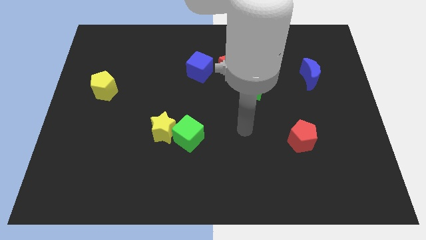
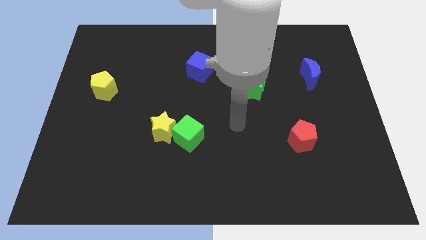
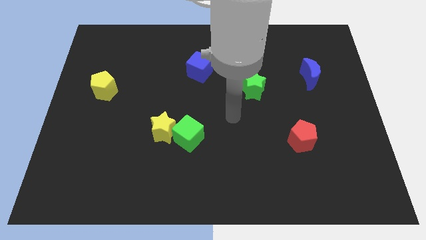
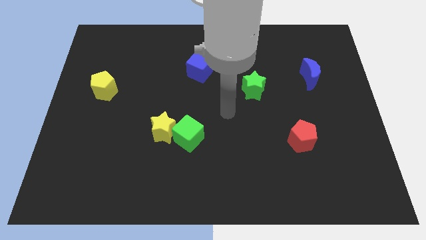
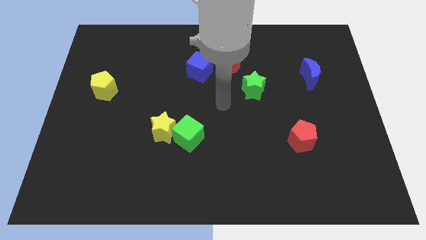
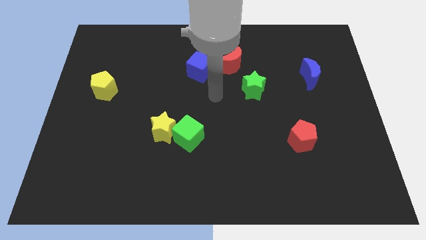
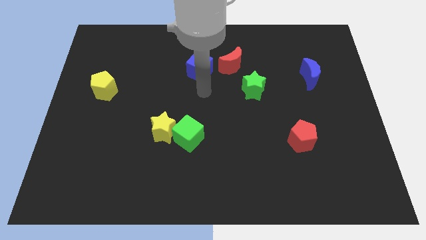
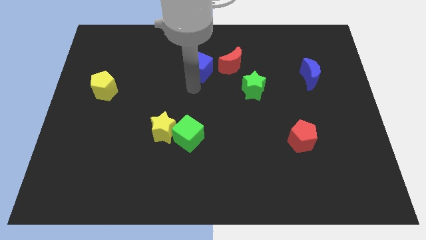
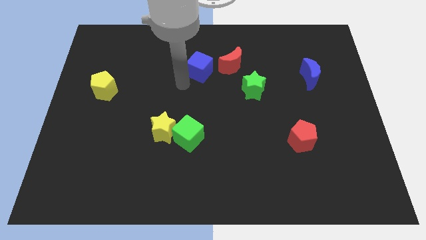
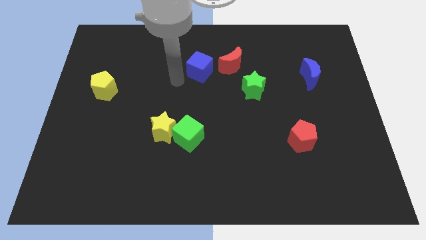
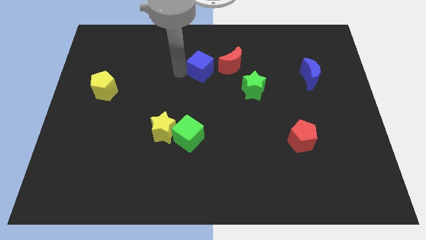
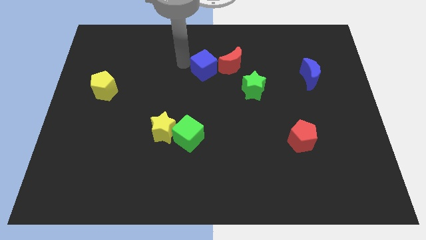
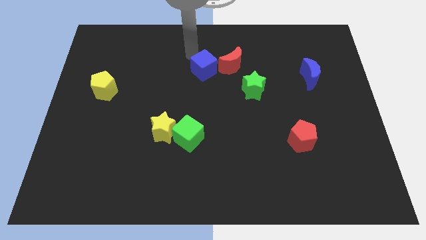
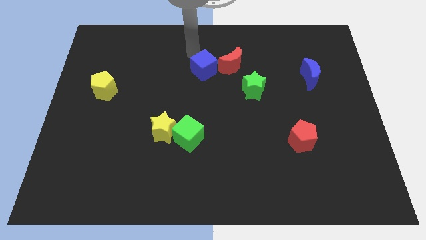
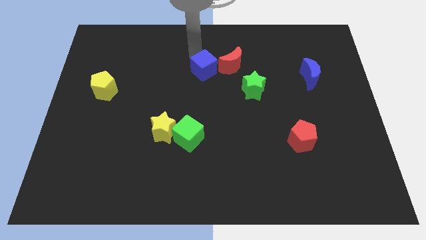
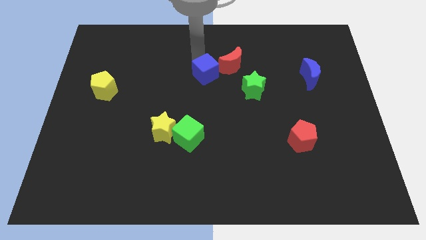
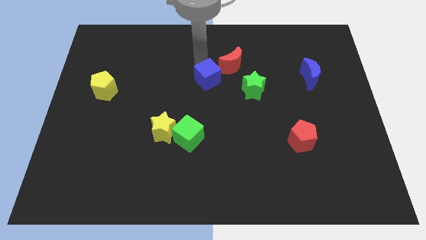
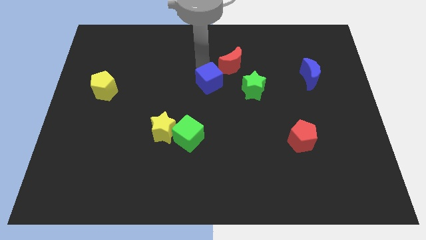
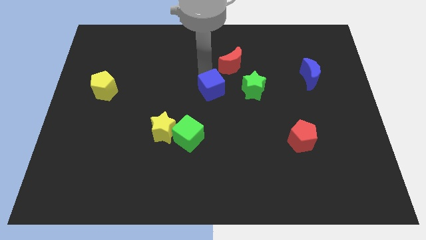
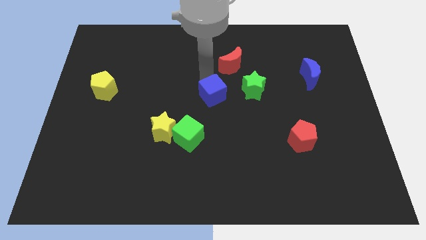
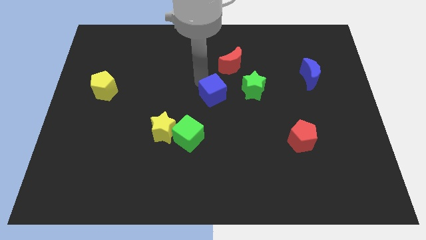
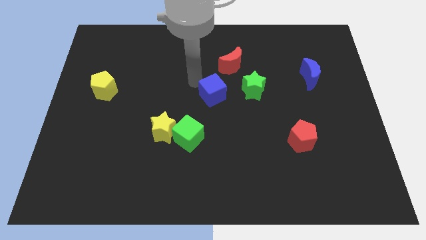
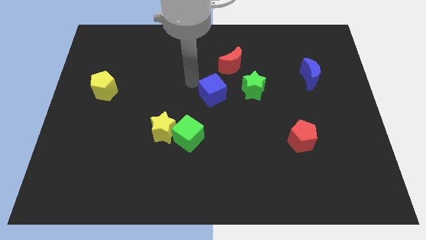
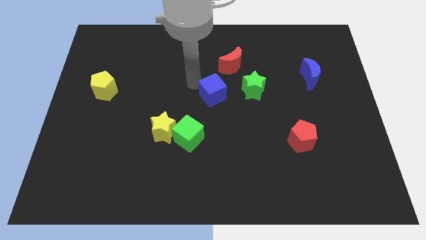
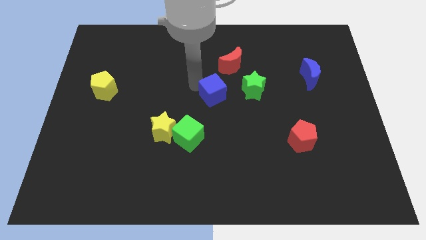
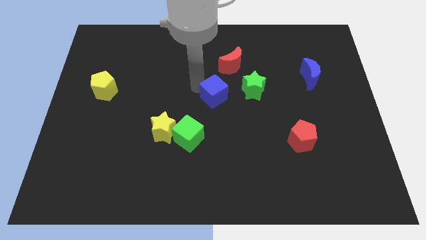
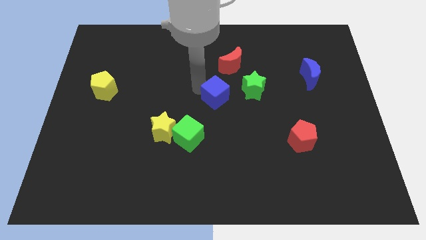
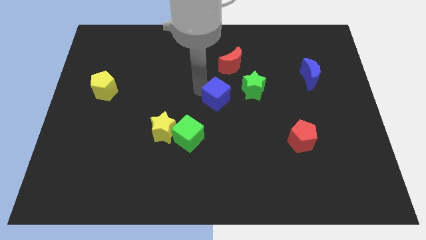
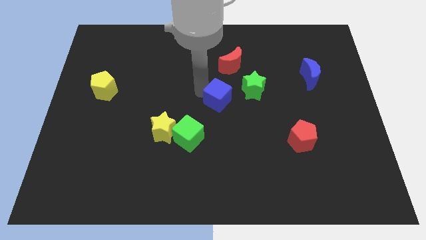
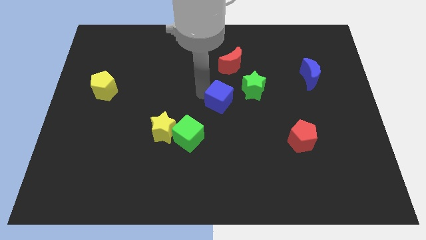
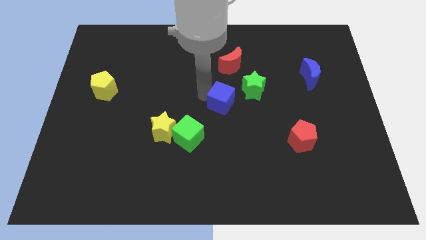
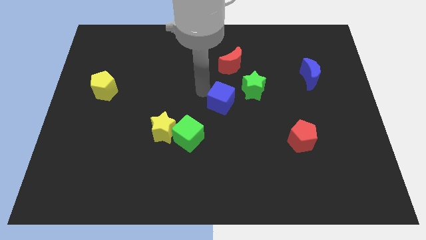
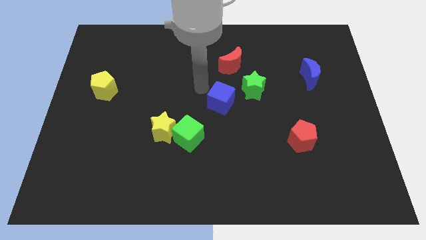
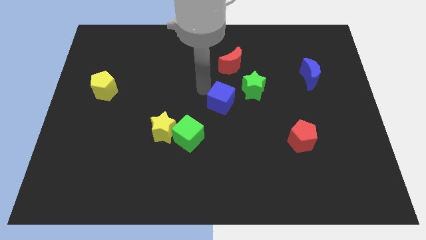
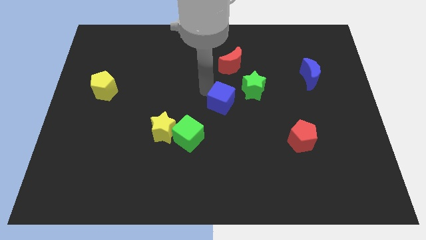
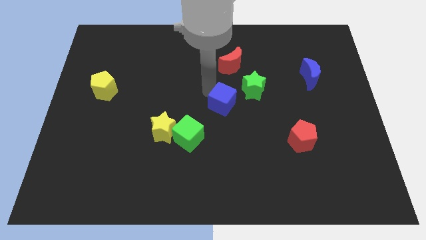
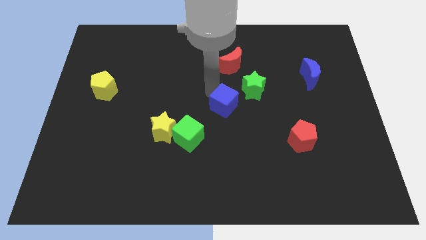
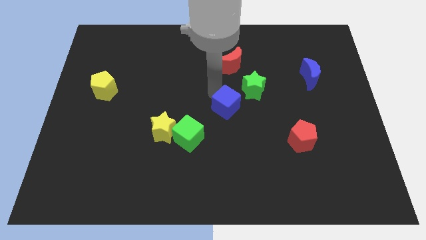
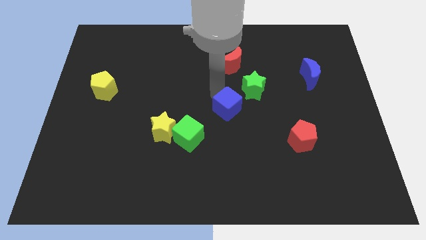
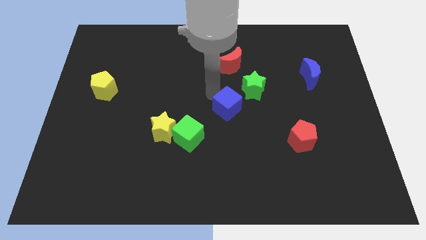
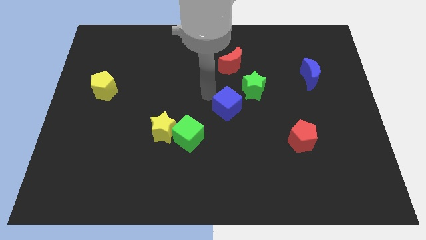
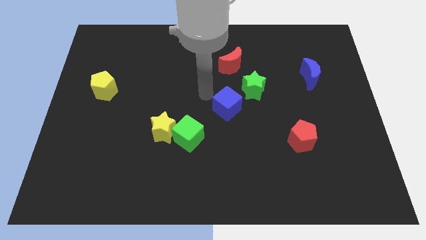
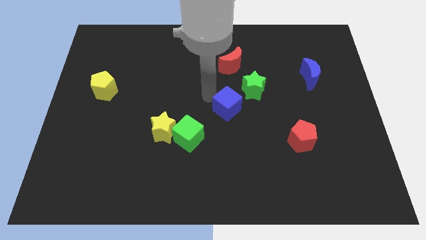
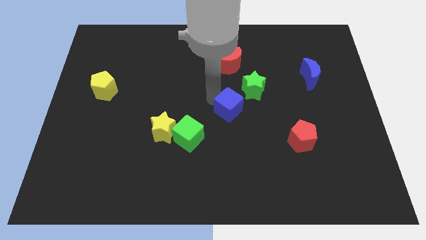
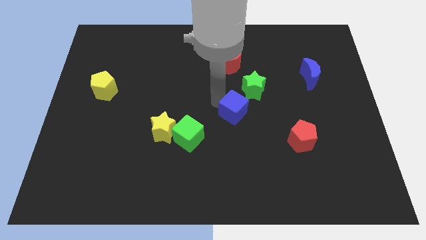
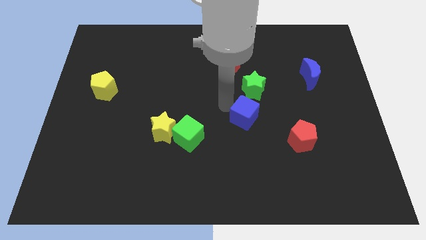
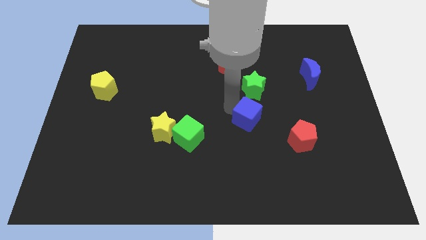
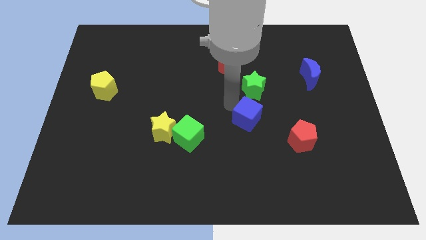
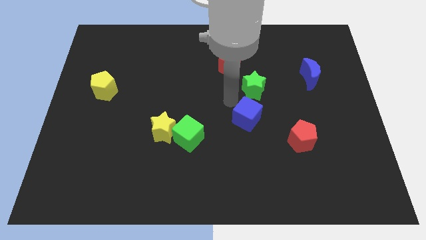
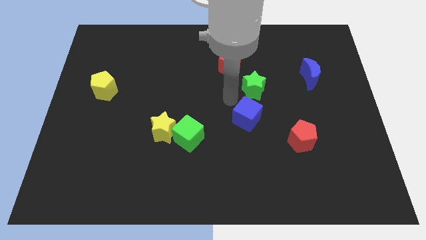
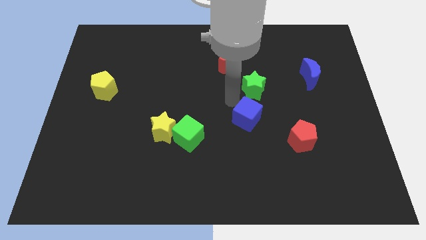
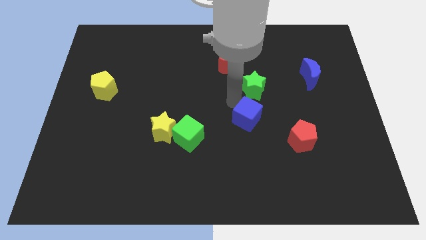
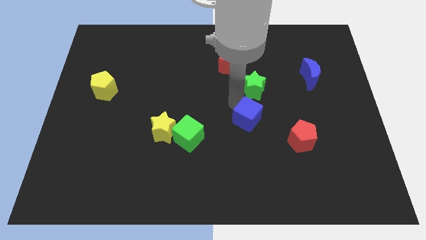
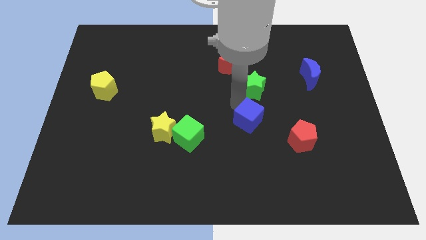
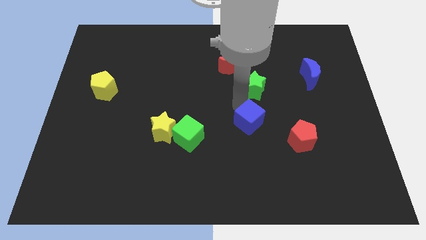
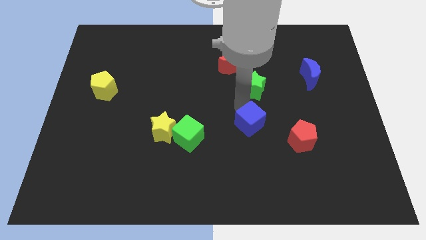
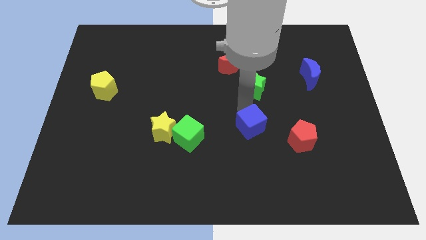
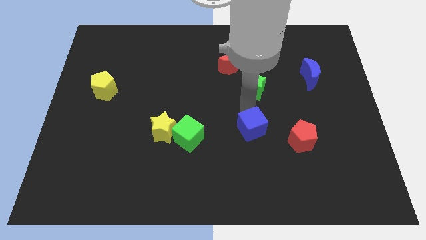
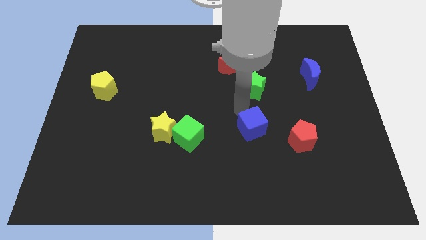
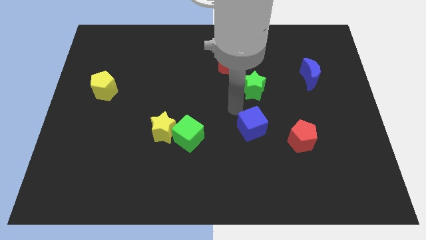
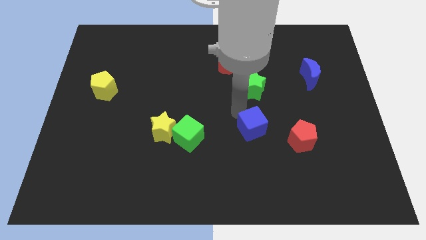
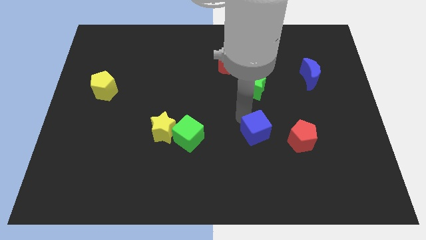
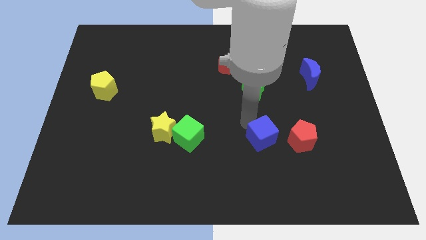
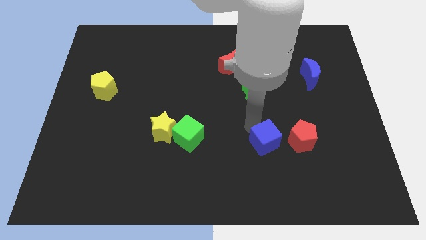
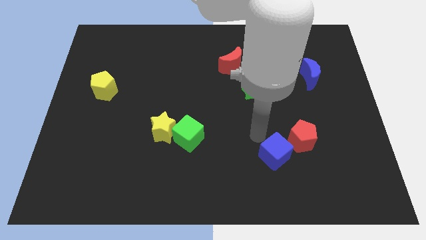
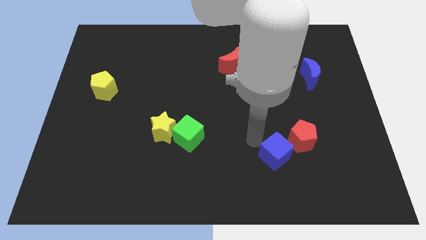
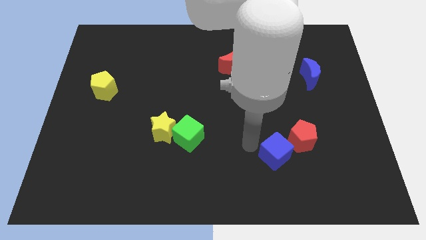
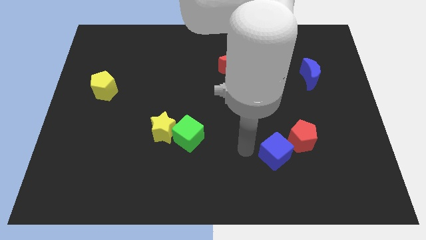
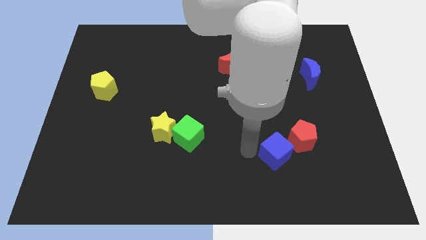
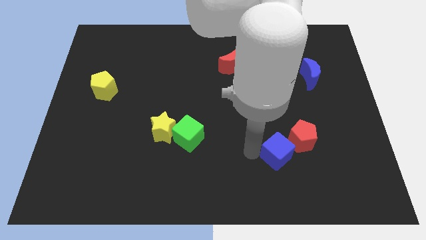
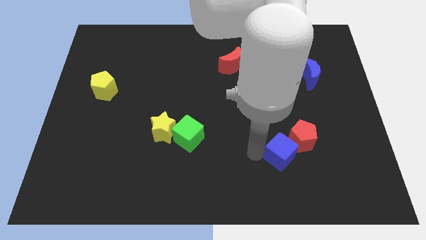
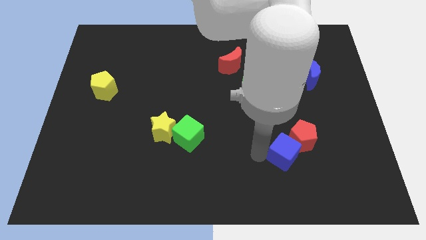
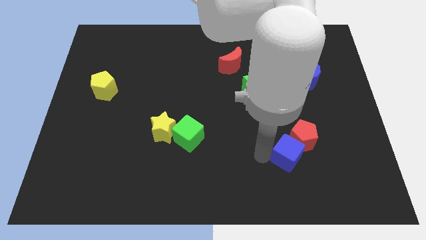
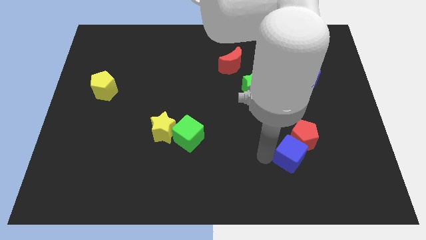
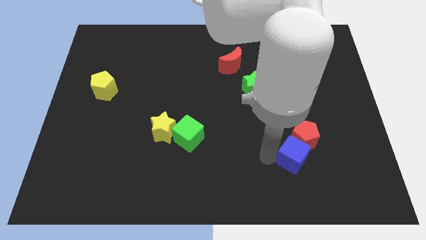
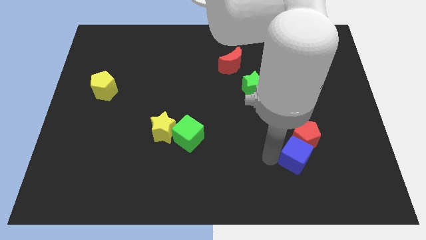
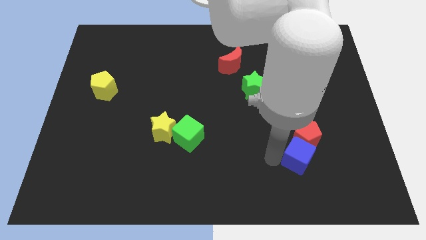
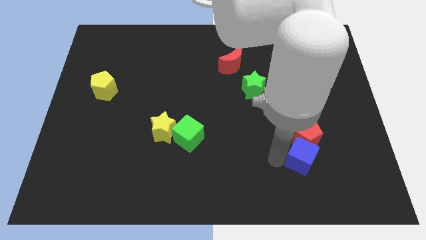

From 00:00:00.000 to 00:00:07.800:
push the blue cube to the bottom right side of the red pentagon
